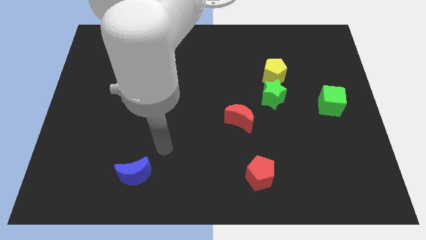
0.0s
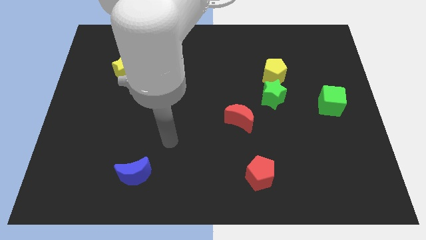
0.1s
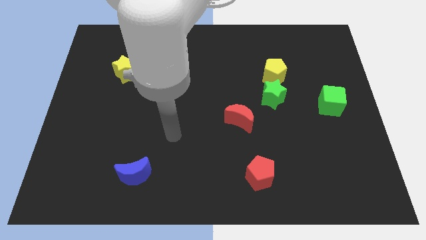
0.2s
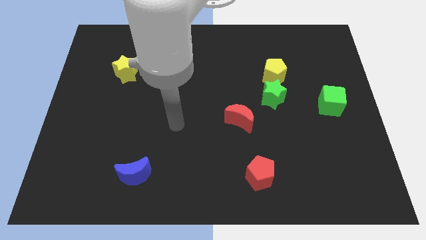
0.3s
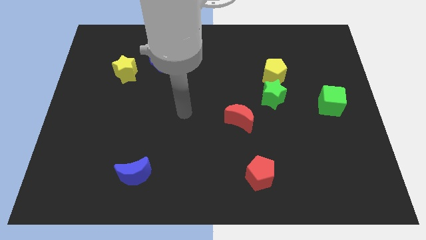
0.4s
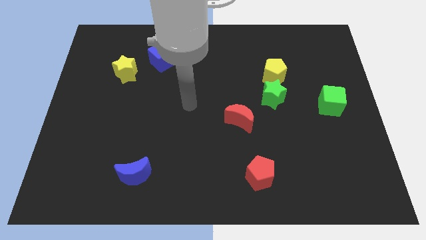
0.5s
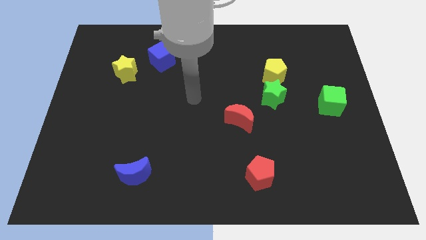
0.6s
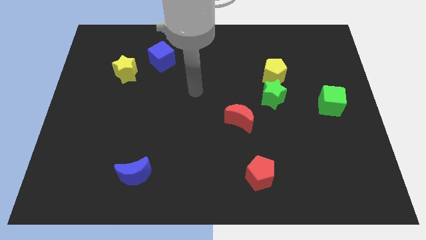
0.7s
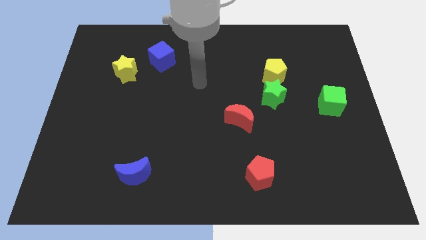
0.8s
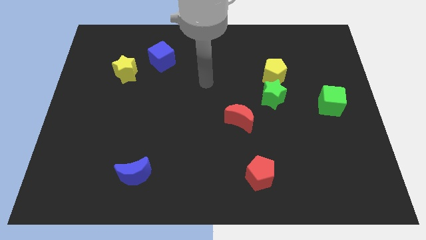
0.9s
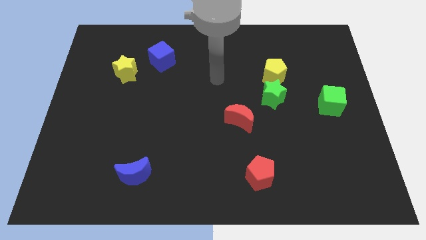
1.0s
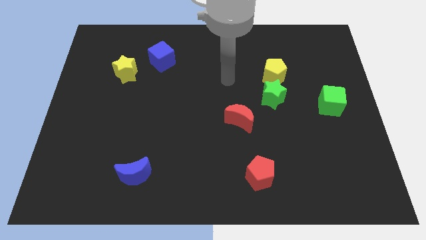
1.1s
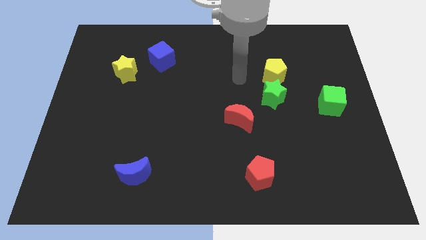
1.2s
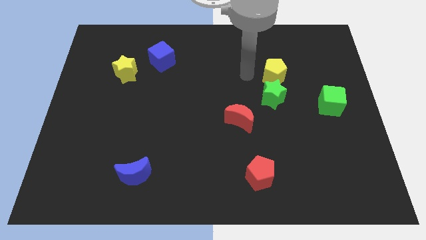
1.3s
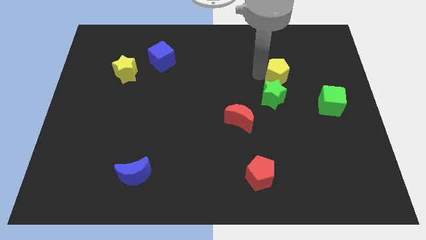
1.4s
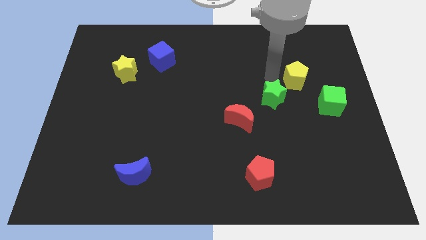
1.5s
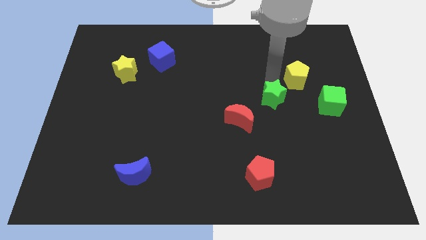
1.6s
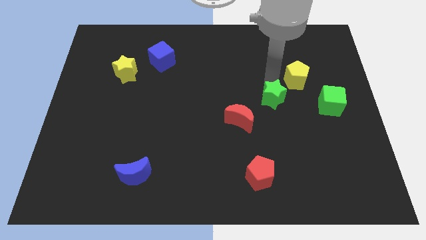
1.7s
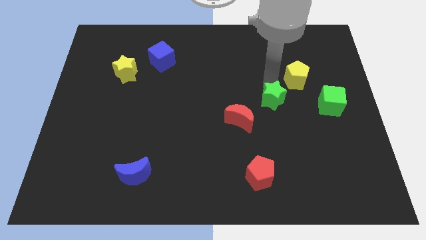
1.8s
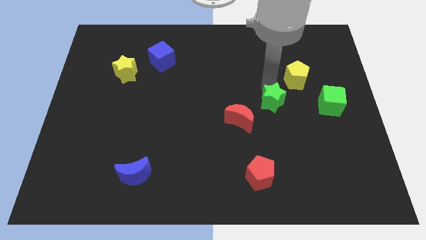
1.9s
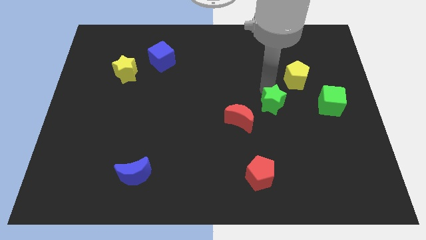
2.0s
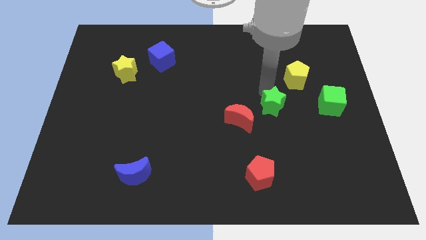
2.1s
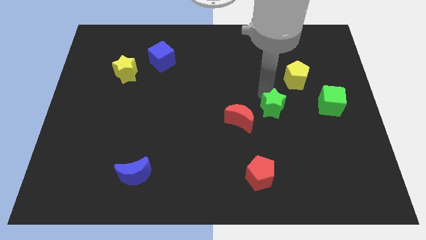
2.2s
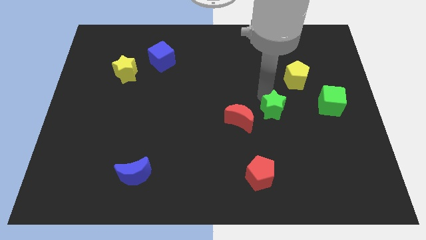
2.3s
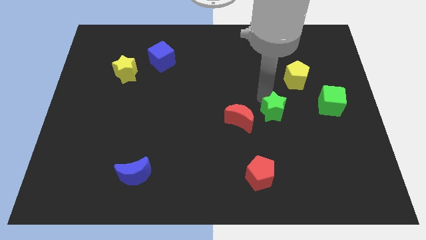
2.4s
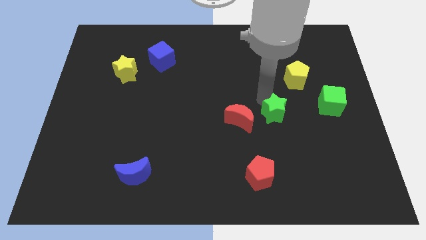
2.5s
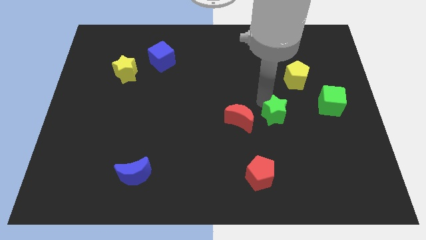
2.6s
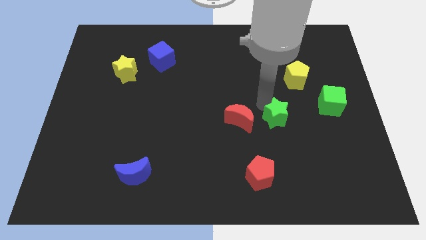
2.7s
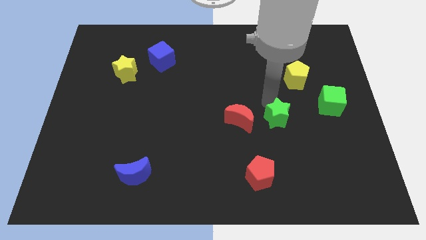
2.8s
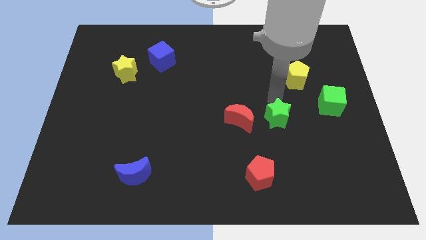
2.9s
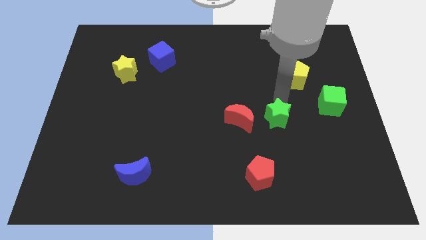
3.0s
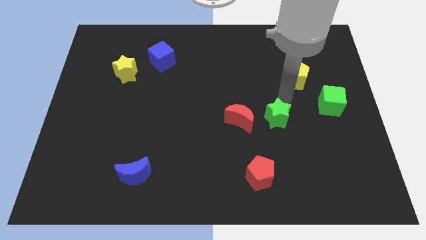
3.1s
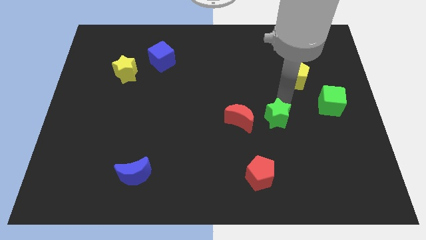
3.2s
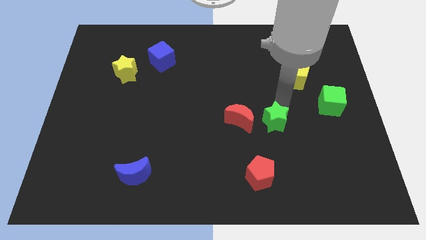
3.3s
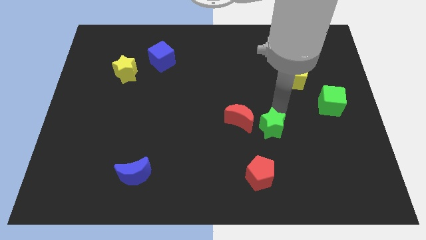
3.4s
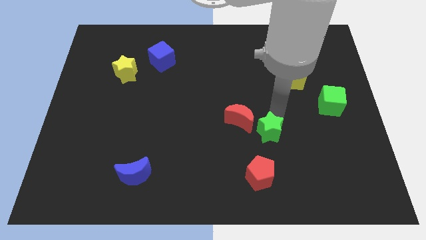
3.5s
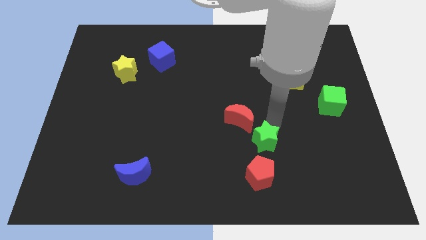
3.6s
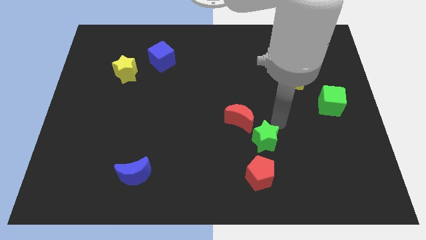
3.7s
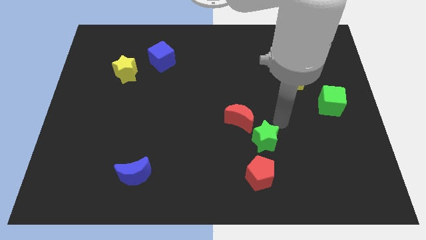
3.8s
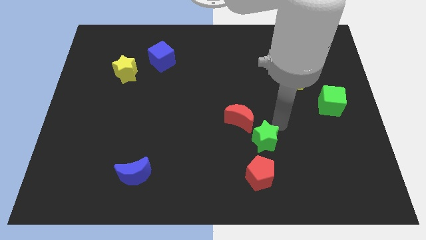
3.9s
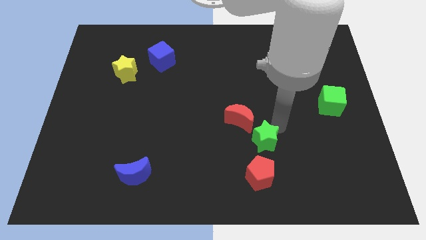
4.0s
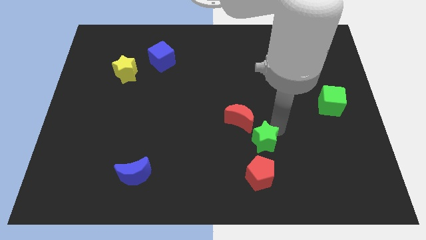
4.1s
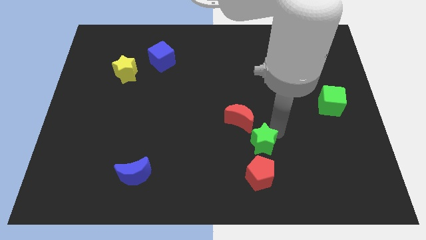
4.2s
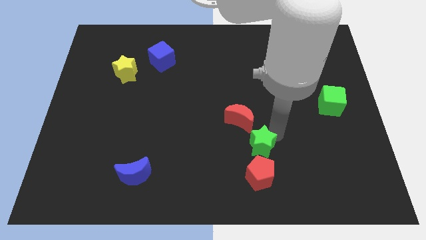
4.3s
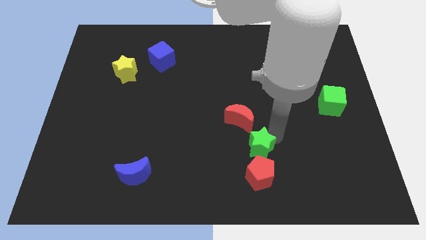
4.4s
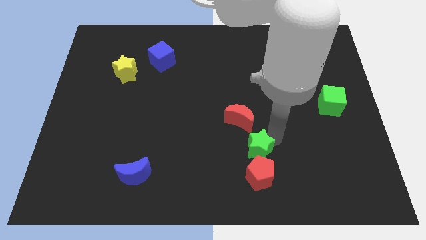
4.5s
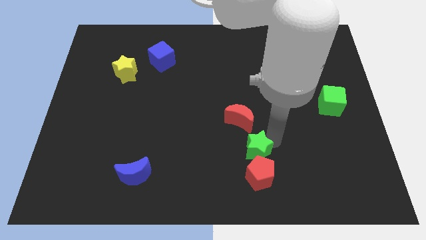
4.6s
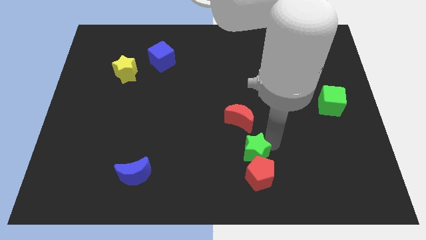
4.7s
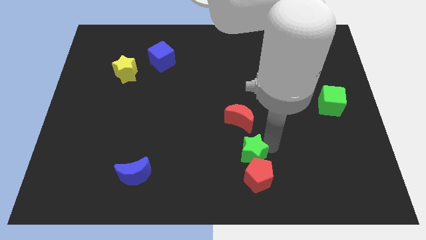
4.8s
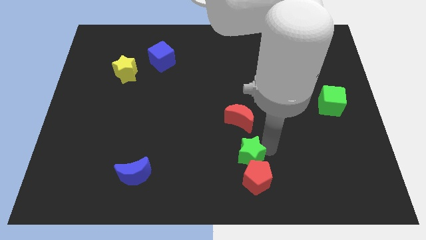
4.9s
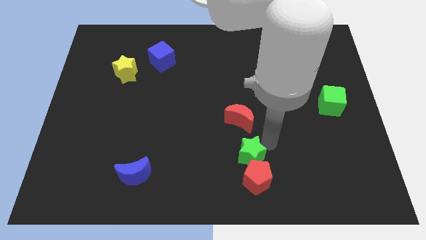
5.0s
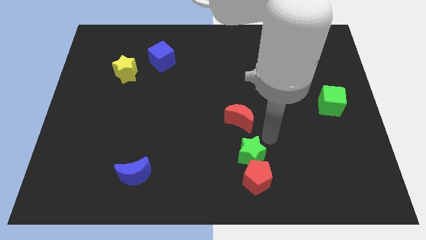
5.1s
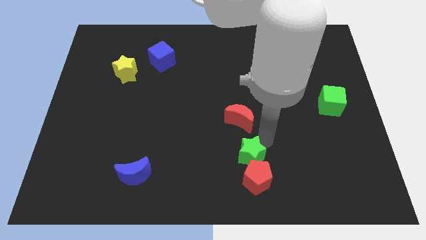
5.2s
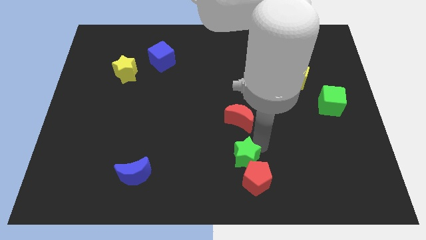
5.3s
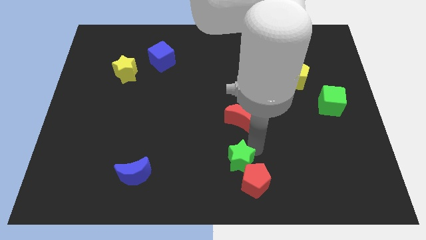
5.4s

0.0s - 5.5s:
put the green star to the bottom side

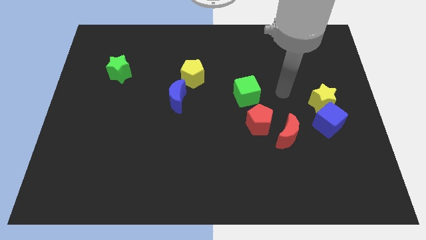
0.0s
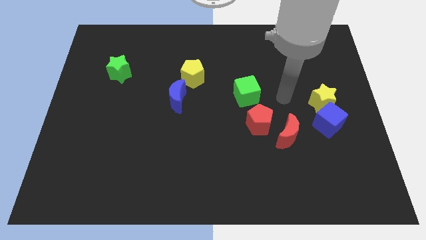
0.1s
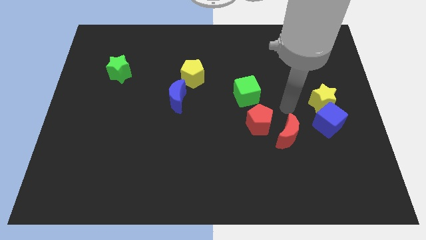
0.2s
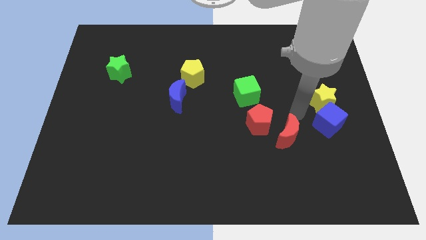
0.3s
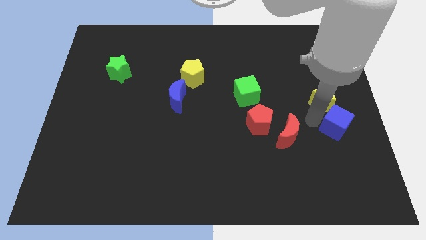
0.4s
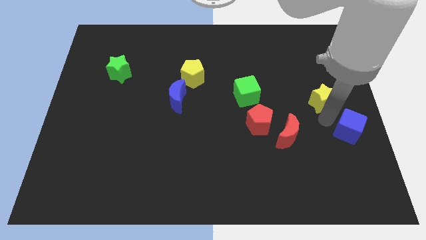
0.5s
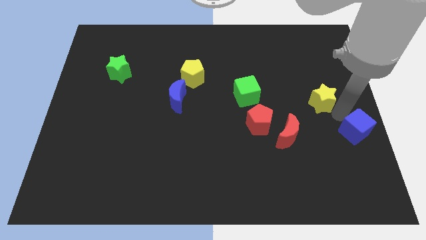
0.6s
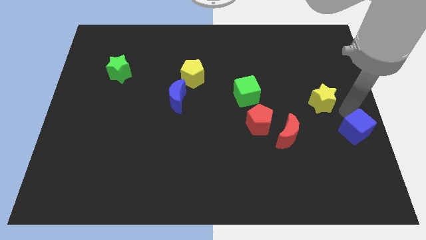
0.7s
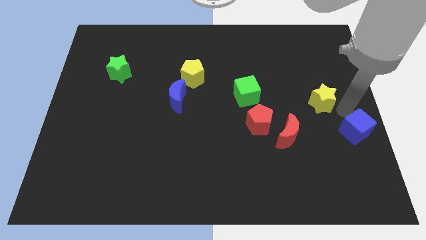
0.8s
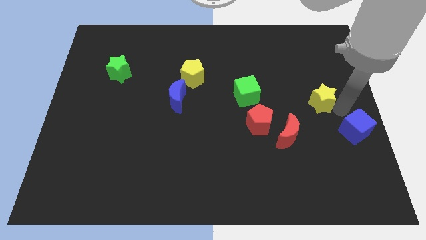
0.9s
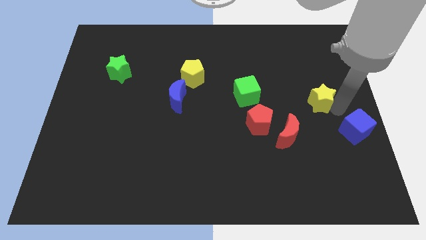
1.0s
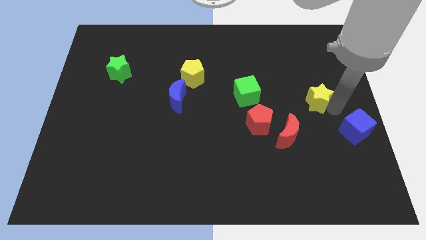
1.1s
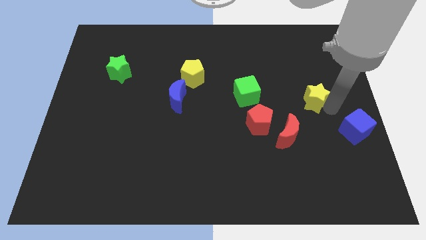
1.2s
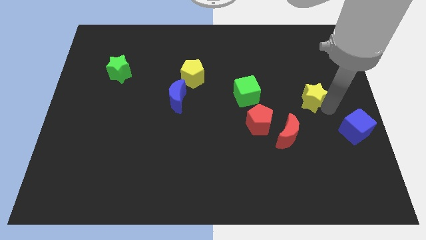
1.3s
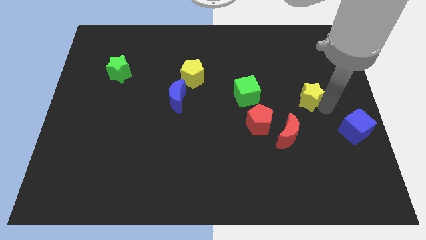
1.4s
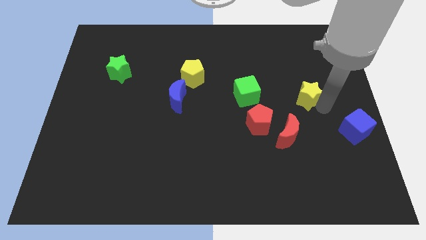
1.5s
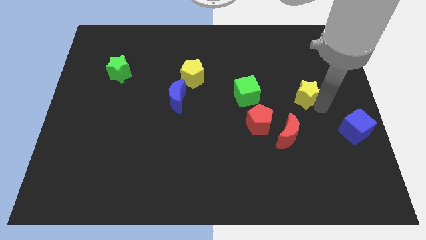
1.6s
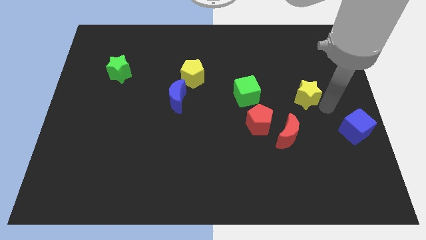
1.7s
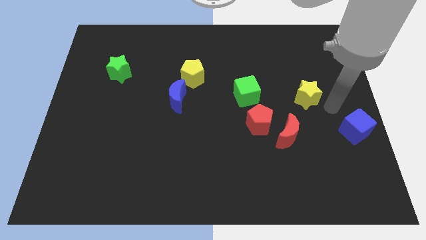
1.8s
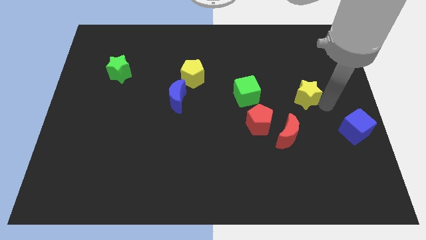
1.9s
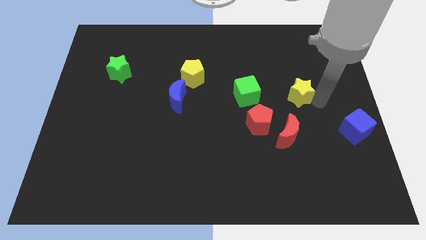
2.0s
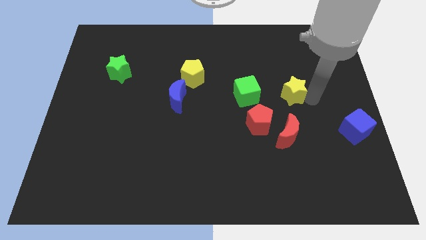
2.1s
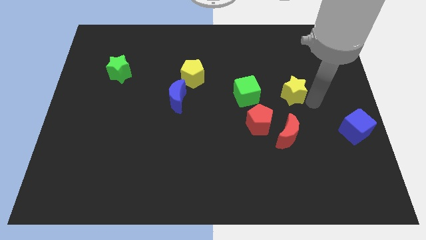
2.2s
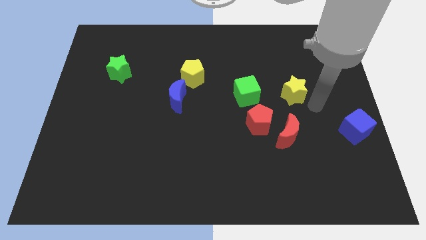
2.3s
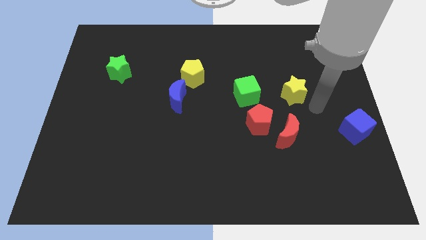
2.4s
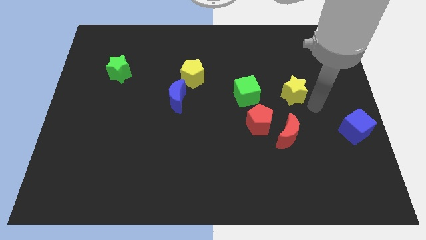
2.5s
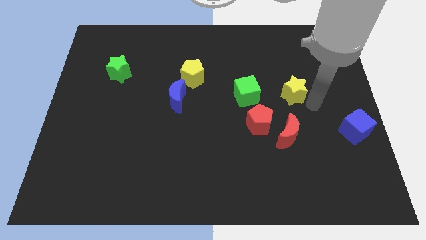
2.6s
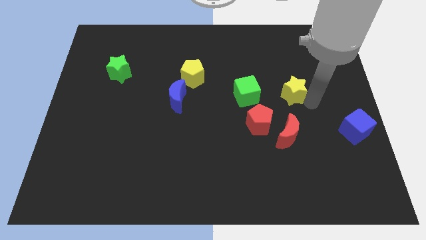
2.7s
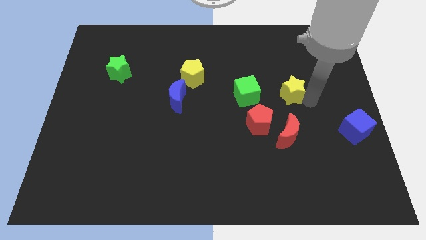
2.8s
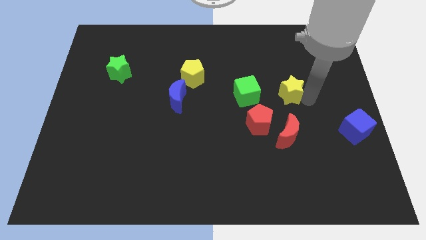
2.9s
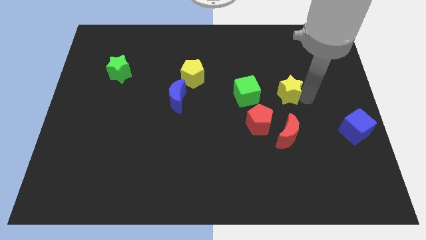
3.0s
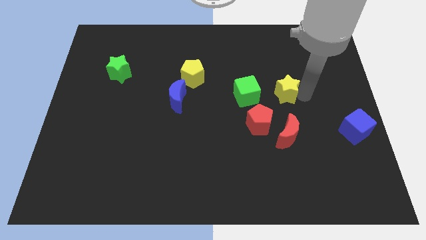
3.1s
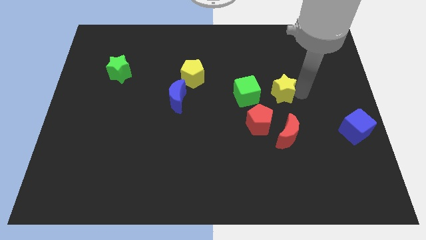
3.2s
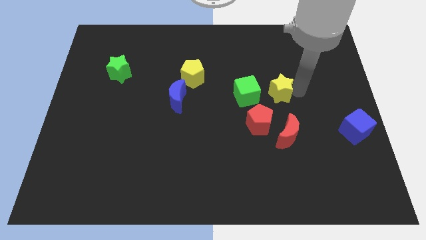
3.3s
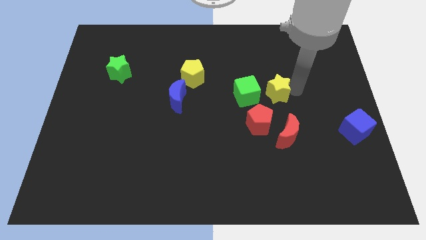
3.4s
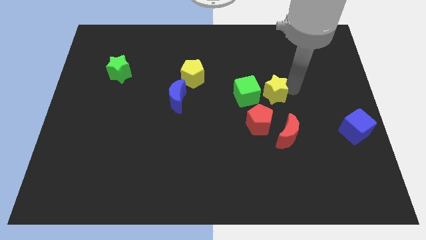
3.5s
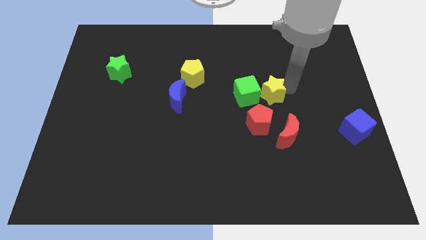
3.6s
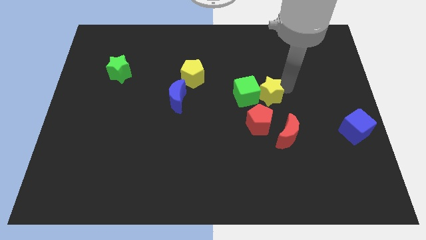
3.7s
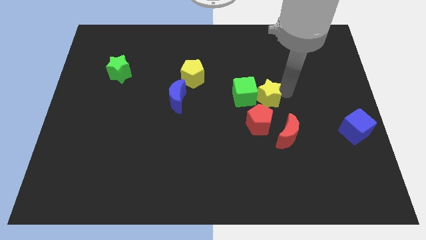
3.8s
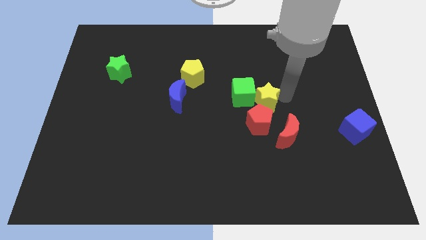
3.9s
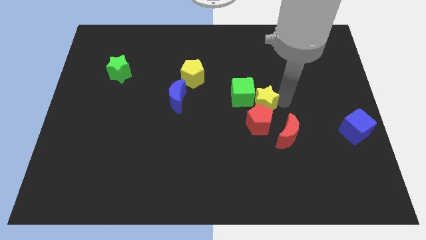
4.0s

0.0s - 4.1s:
move the yellow star to the middle
